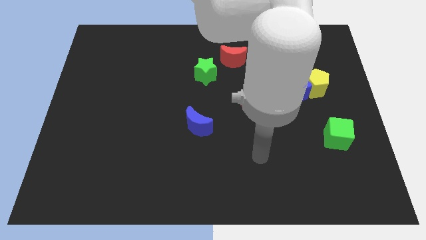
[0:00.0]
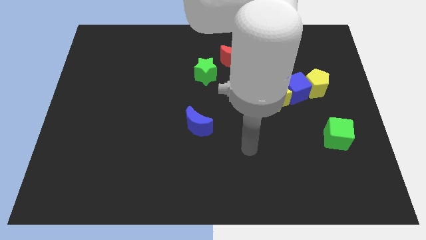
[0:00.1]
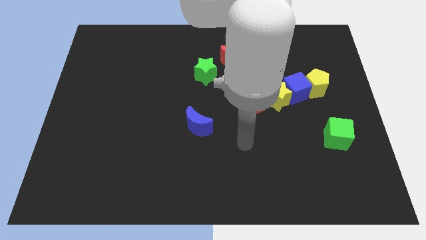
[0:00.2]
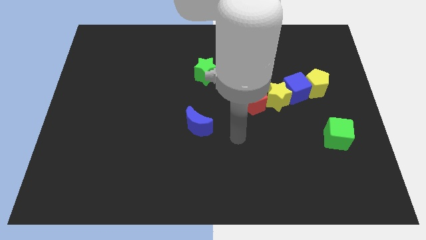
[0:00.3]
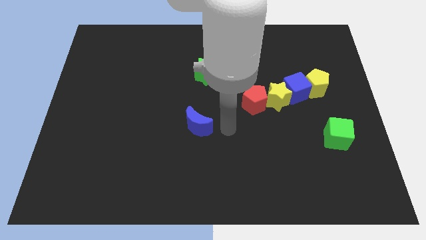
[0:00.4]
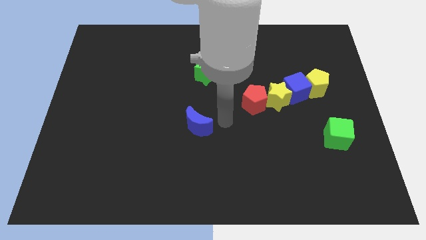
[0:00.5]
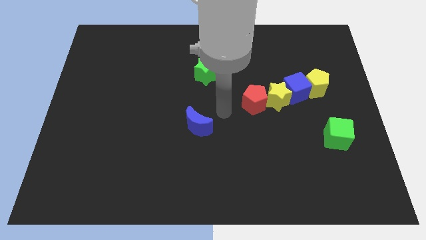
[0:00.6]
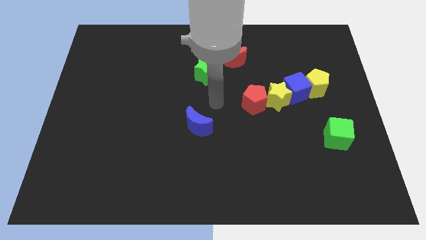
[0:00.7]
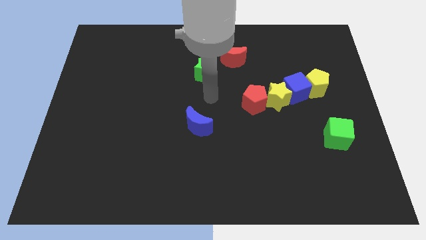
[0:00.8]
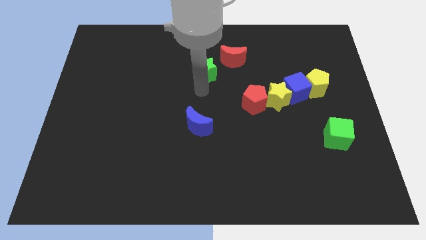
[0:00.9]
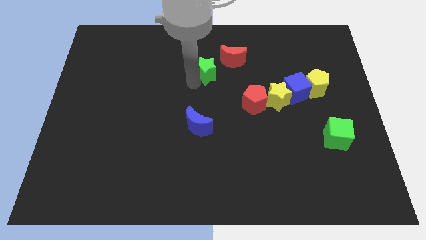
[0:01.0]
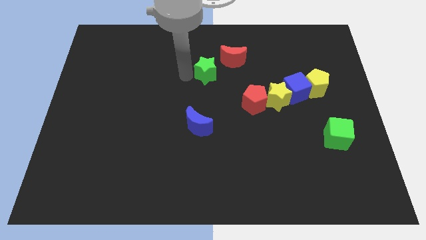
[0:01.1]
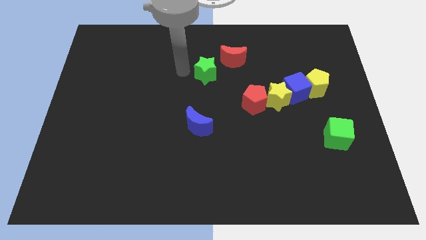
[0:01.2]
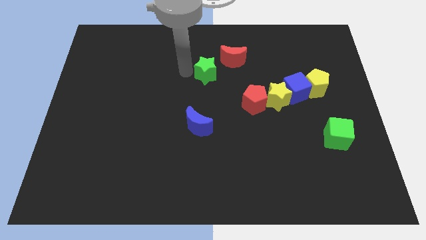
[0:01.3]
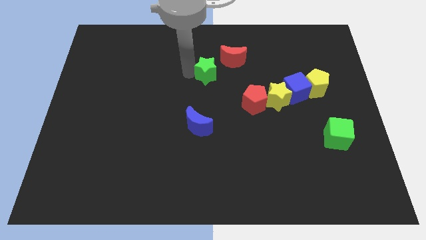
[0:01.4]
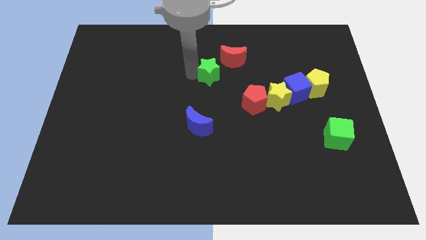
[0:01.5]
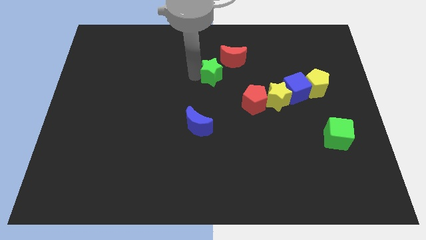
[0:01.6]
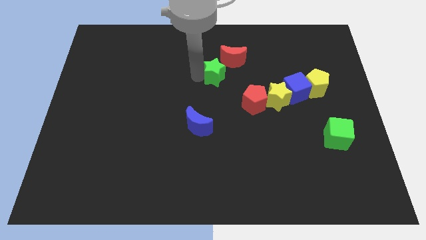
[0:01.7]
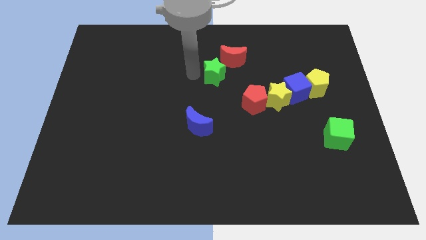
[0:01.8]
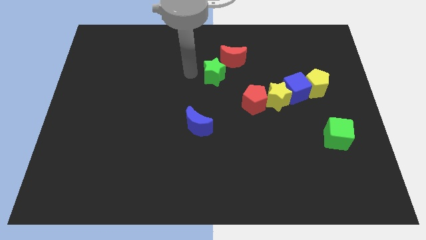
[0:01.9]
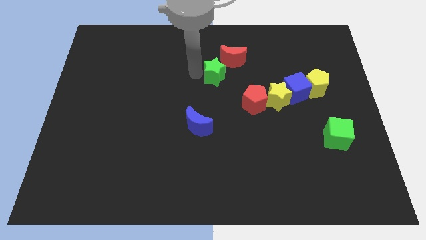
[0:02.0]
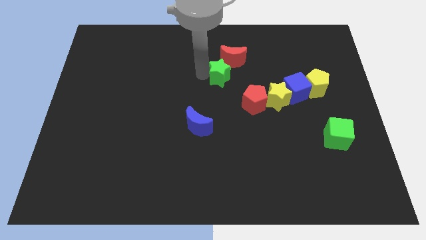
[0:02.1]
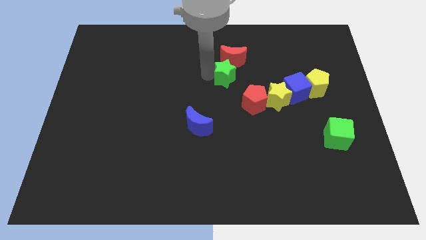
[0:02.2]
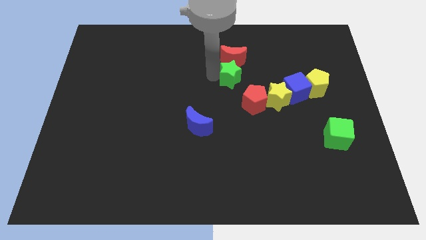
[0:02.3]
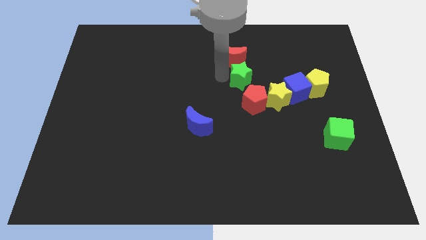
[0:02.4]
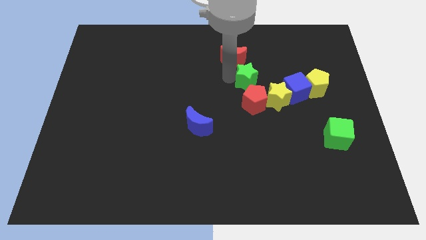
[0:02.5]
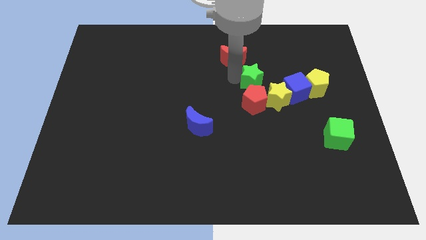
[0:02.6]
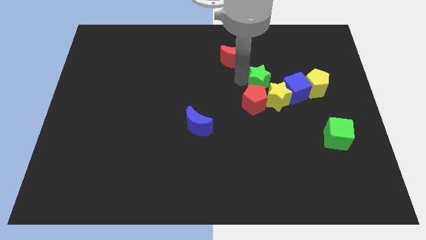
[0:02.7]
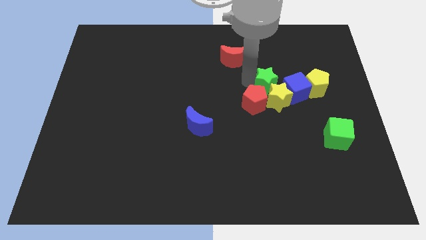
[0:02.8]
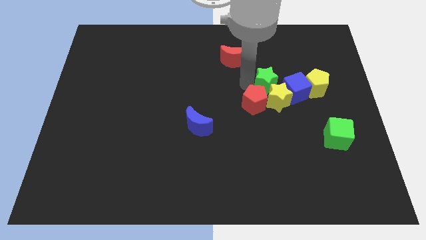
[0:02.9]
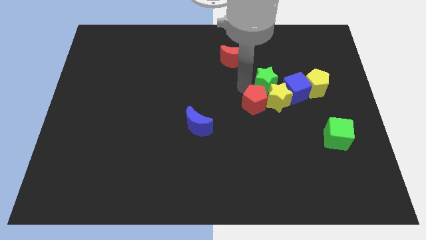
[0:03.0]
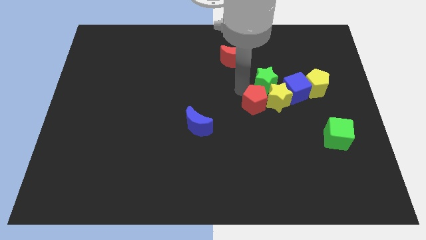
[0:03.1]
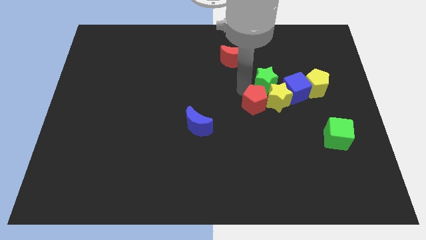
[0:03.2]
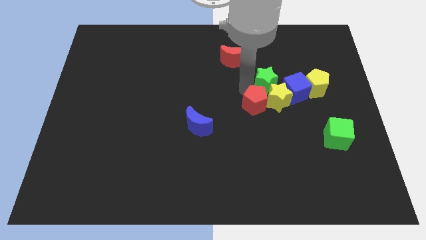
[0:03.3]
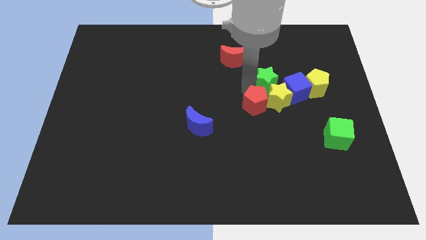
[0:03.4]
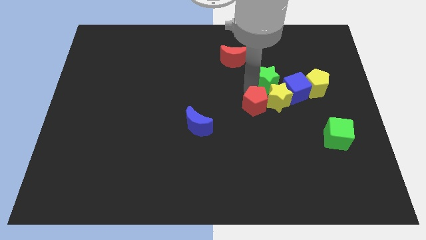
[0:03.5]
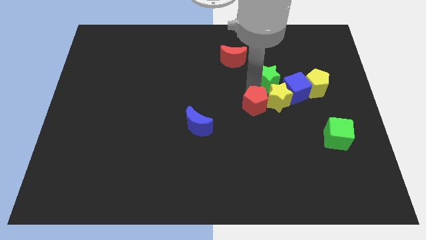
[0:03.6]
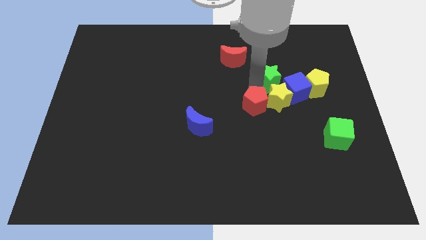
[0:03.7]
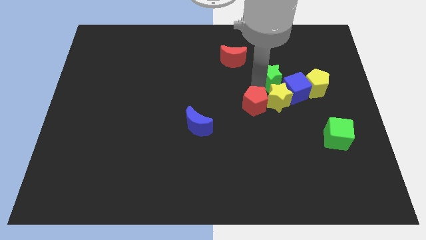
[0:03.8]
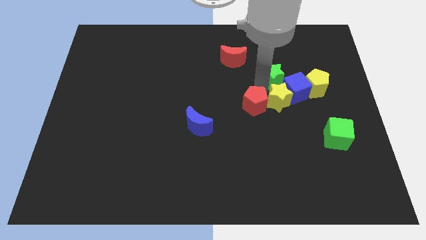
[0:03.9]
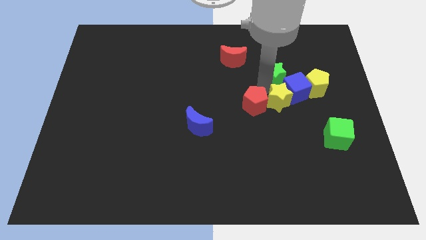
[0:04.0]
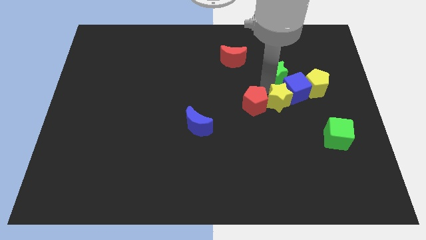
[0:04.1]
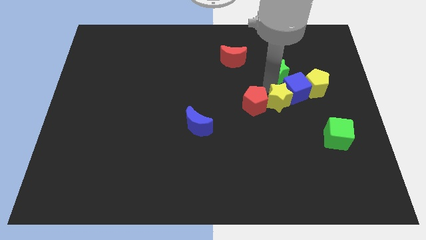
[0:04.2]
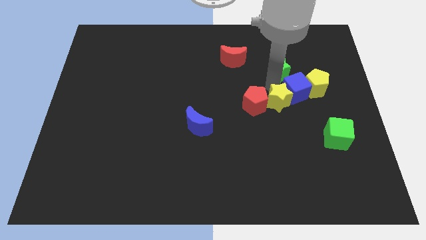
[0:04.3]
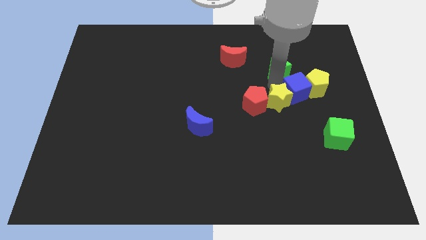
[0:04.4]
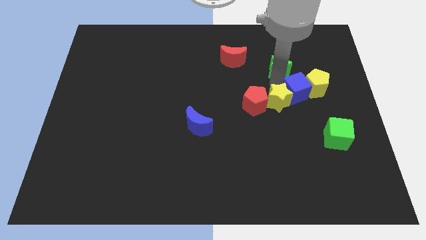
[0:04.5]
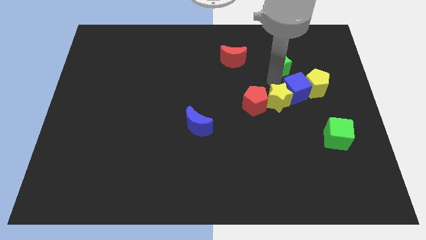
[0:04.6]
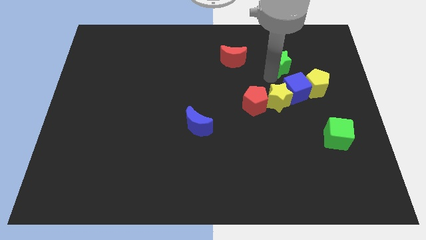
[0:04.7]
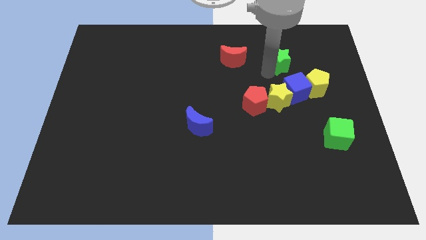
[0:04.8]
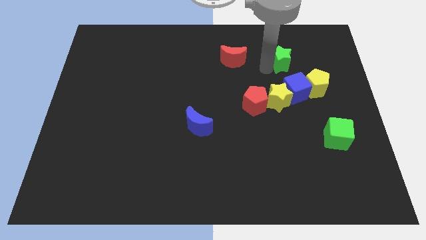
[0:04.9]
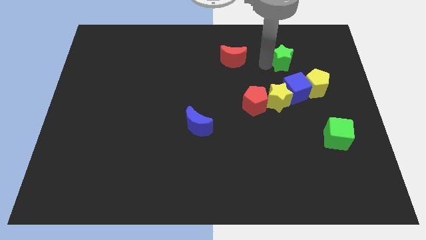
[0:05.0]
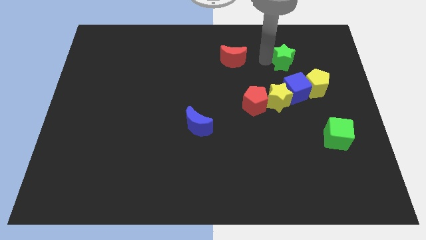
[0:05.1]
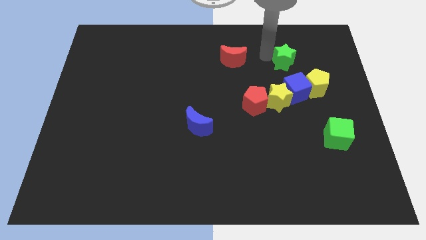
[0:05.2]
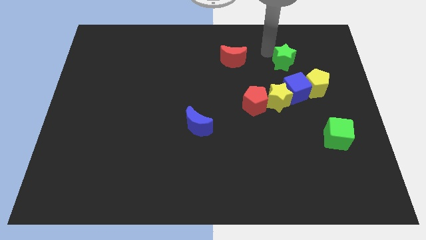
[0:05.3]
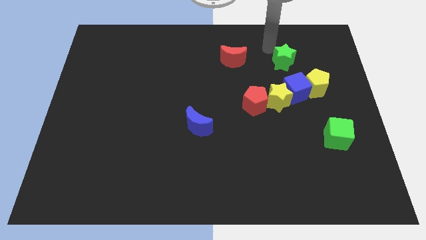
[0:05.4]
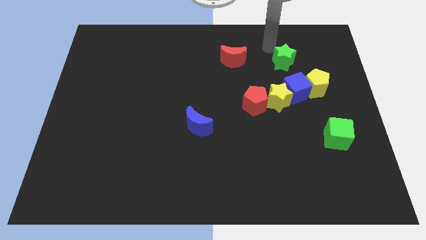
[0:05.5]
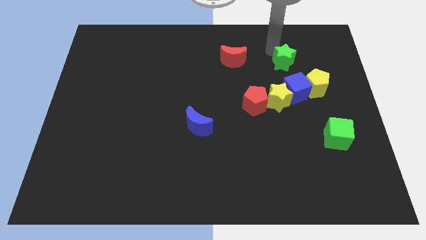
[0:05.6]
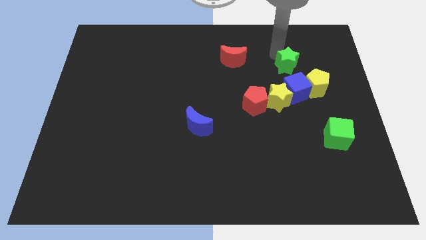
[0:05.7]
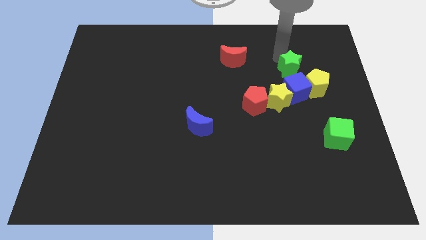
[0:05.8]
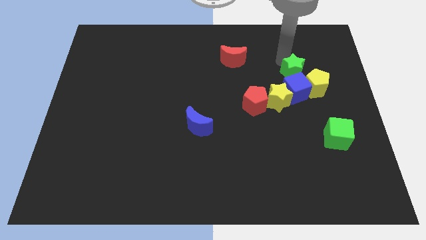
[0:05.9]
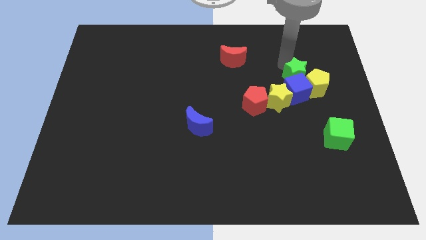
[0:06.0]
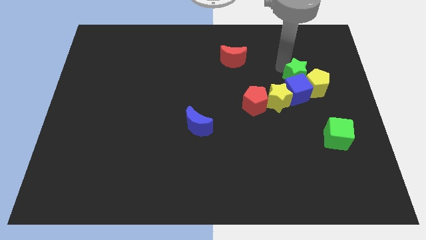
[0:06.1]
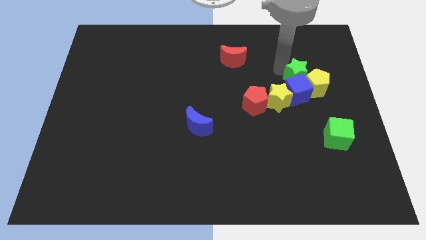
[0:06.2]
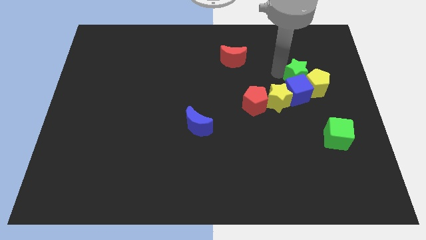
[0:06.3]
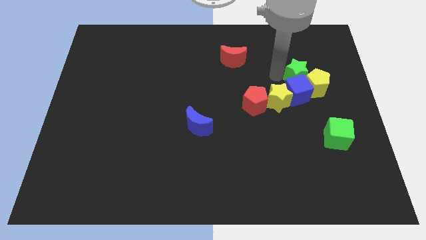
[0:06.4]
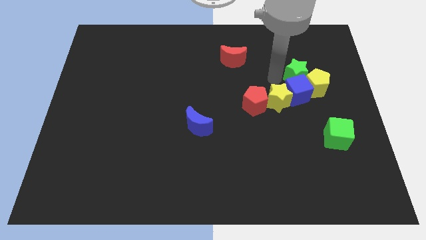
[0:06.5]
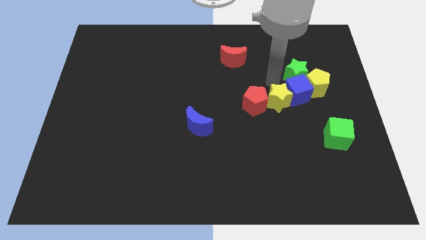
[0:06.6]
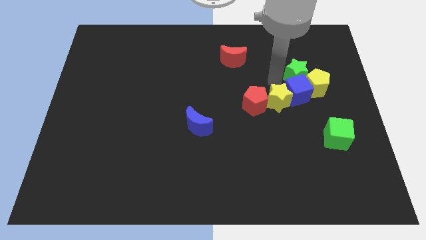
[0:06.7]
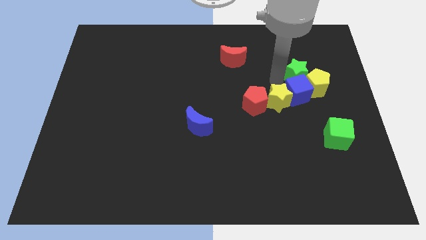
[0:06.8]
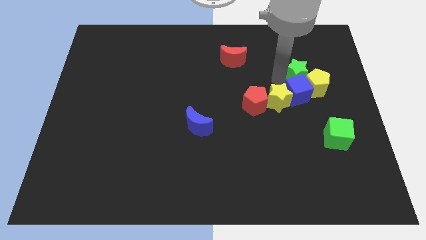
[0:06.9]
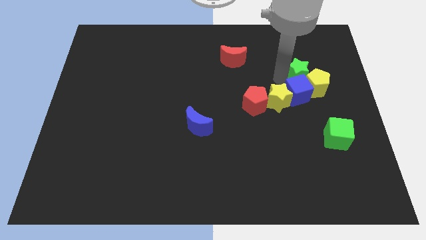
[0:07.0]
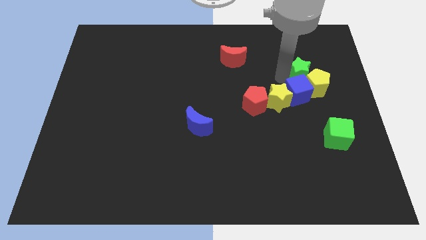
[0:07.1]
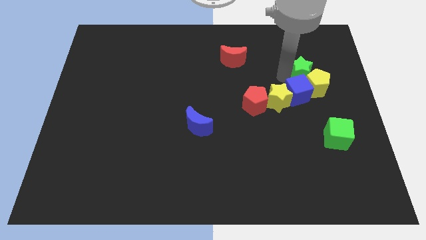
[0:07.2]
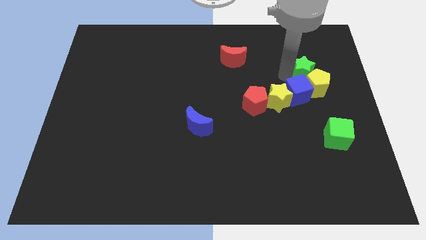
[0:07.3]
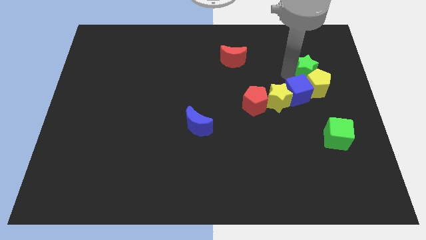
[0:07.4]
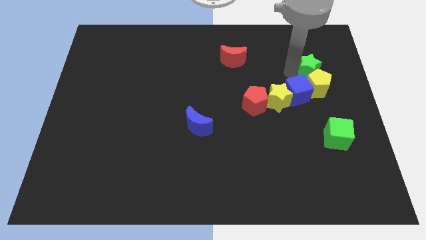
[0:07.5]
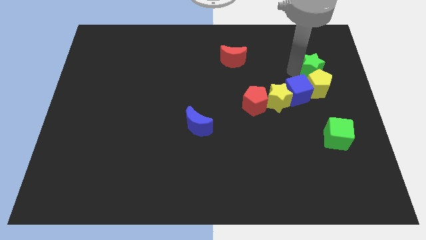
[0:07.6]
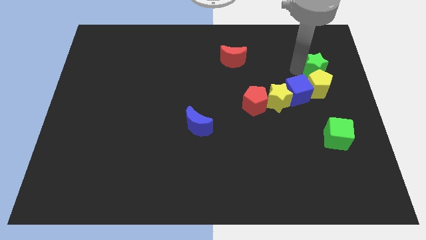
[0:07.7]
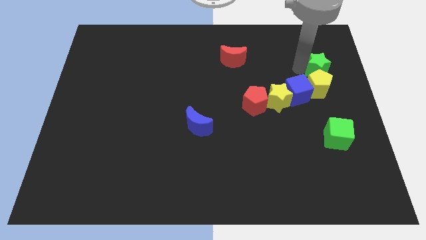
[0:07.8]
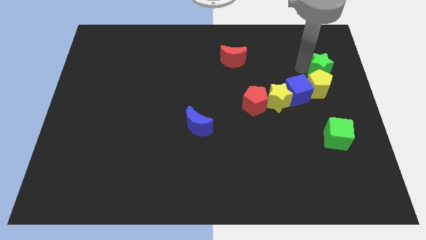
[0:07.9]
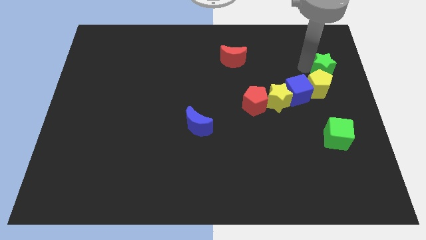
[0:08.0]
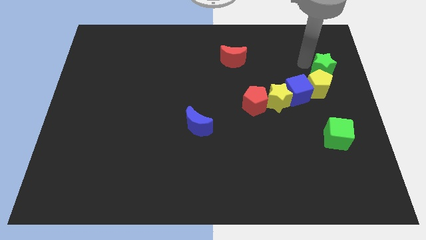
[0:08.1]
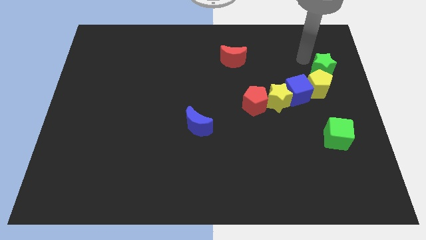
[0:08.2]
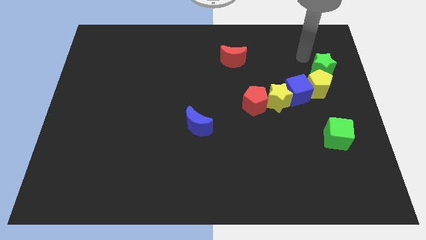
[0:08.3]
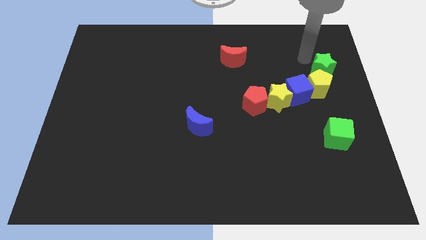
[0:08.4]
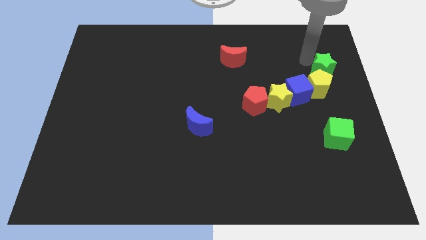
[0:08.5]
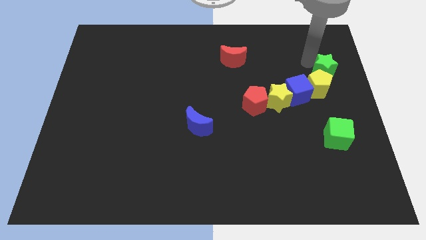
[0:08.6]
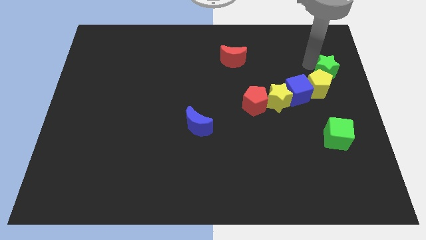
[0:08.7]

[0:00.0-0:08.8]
slide the green star to the right side of the board
